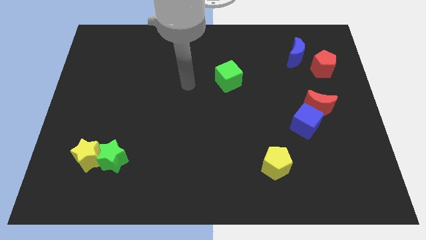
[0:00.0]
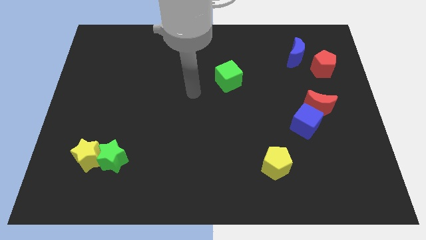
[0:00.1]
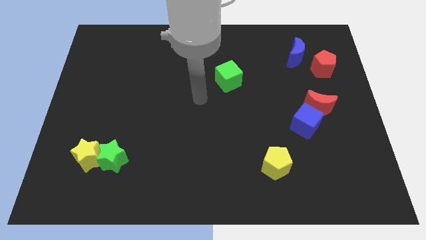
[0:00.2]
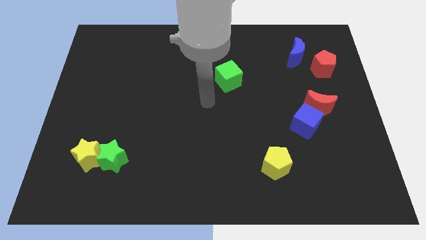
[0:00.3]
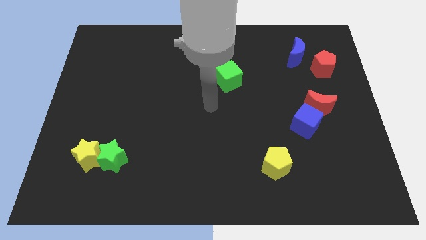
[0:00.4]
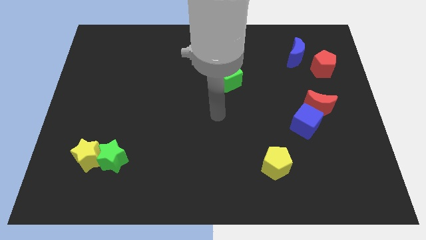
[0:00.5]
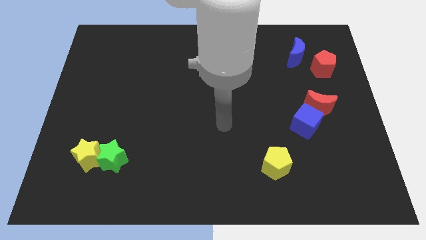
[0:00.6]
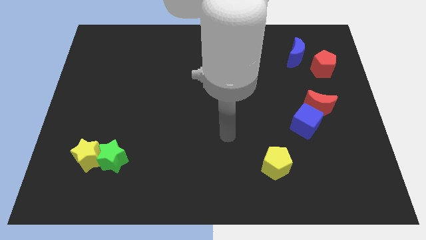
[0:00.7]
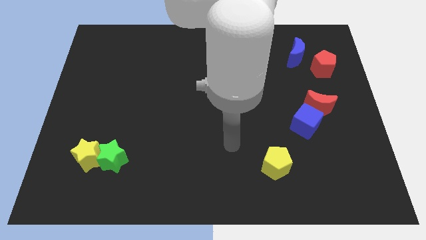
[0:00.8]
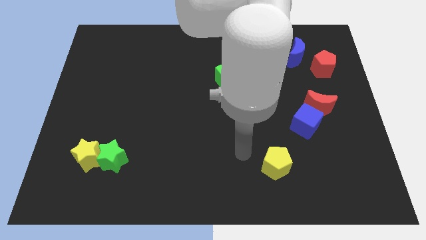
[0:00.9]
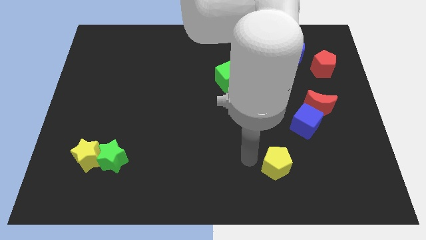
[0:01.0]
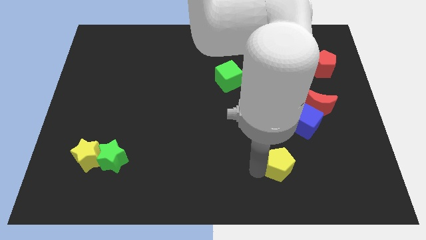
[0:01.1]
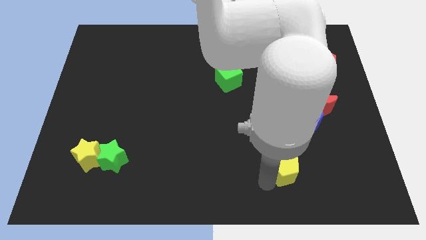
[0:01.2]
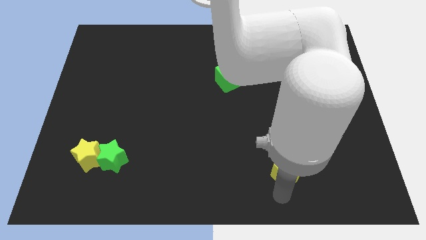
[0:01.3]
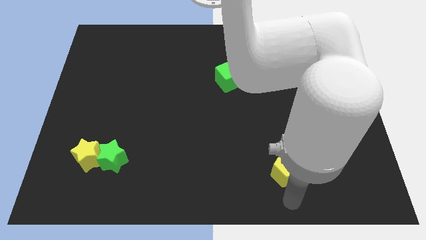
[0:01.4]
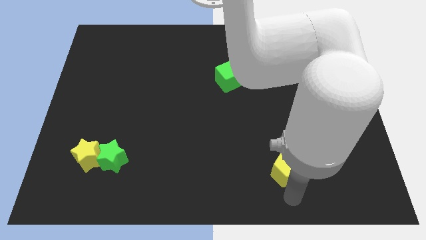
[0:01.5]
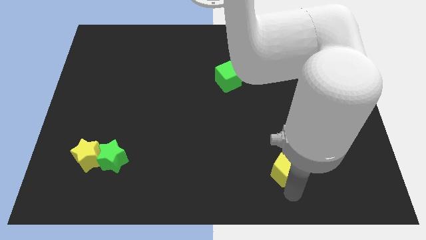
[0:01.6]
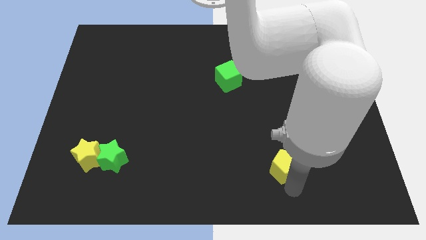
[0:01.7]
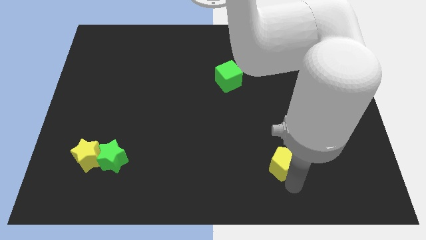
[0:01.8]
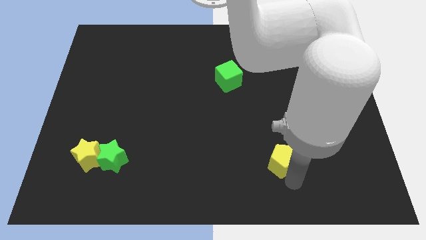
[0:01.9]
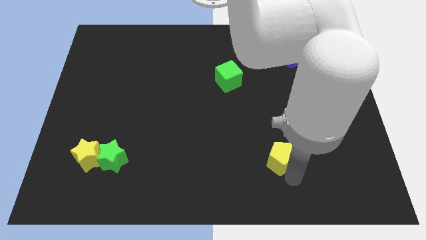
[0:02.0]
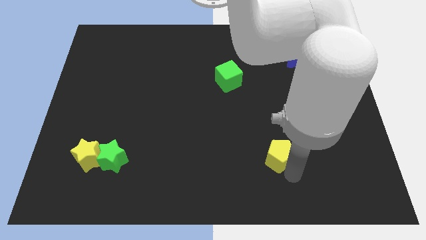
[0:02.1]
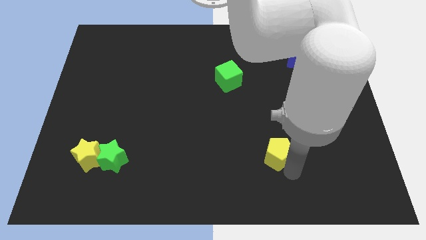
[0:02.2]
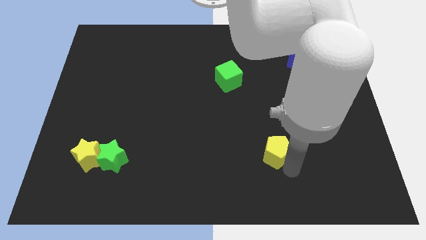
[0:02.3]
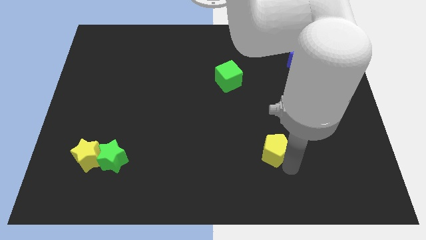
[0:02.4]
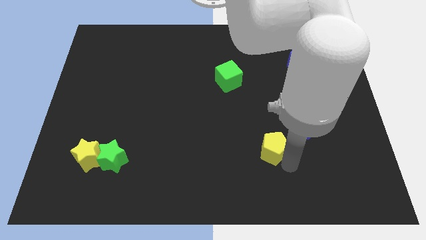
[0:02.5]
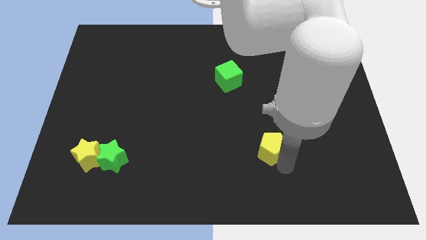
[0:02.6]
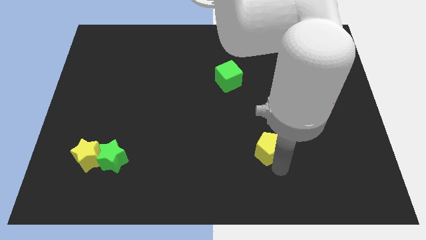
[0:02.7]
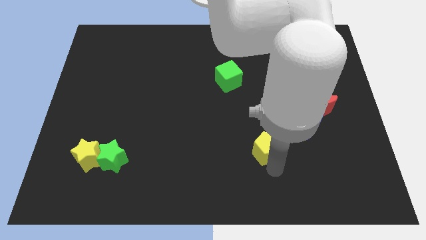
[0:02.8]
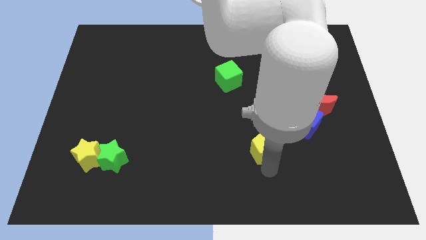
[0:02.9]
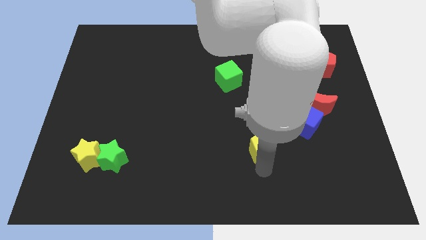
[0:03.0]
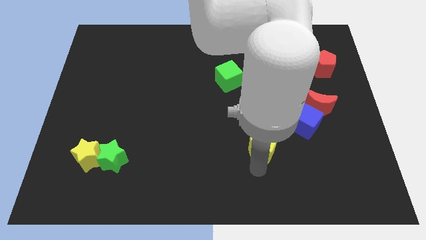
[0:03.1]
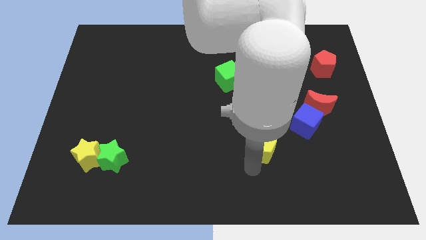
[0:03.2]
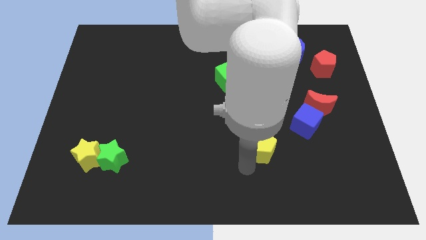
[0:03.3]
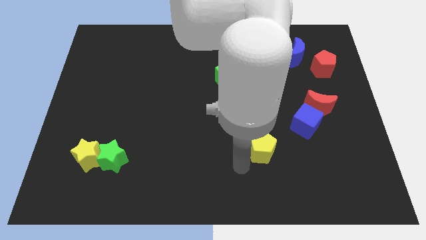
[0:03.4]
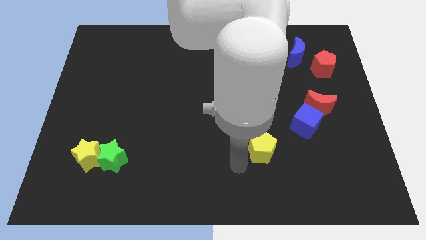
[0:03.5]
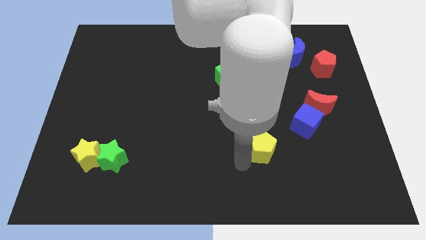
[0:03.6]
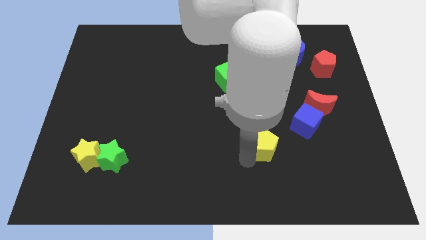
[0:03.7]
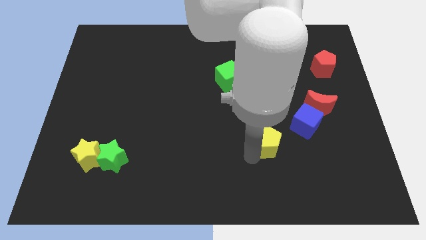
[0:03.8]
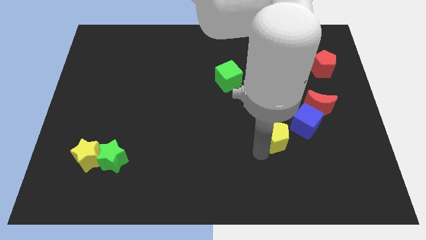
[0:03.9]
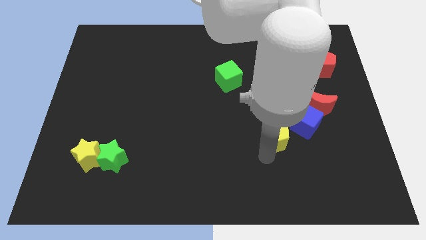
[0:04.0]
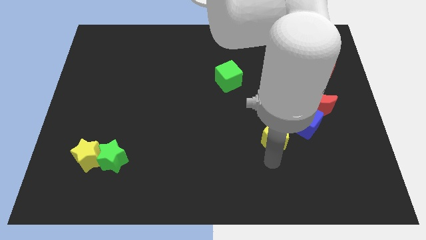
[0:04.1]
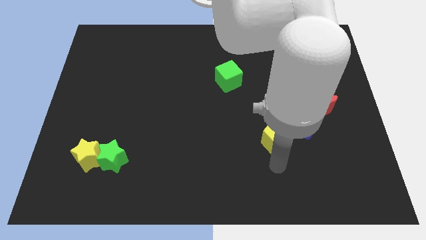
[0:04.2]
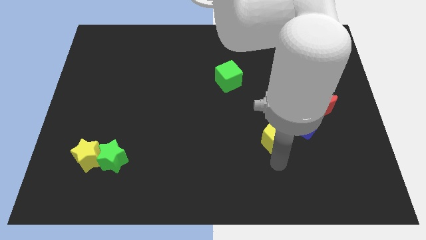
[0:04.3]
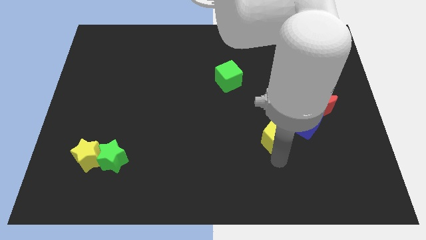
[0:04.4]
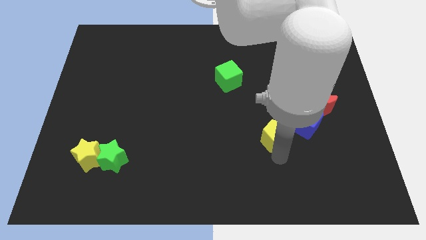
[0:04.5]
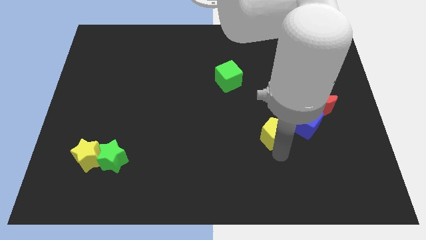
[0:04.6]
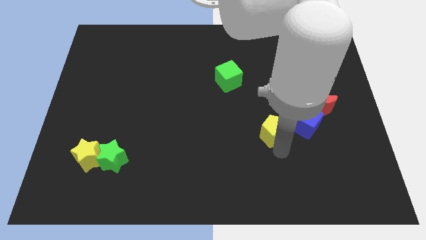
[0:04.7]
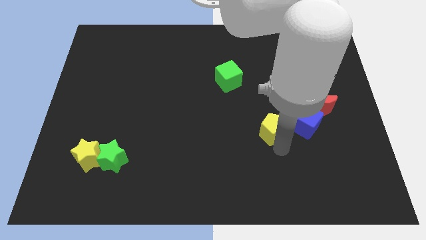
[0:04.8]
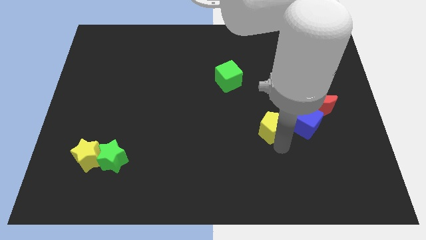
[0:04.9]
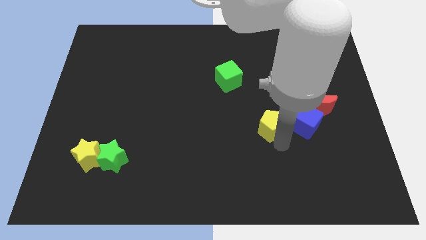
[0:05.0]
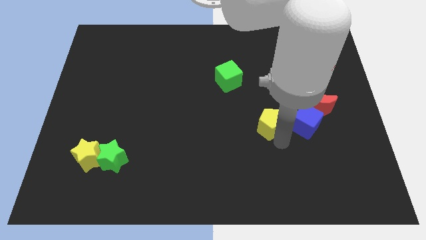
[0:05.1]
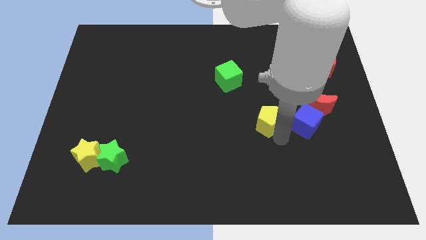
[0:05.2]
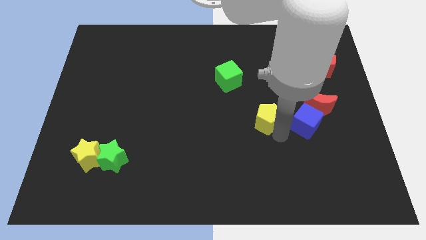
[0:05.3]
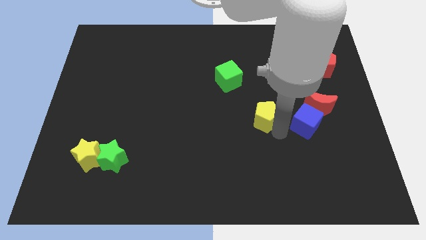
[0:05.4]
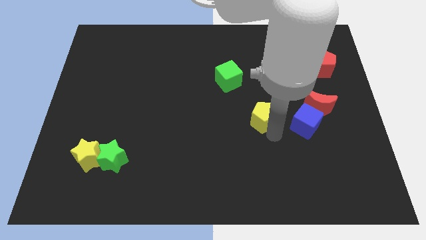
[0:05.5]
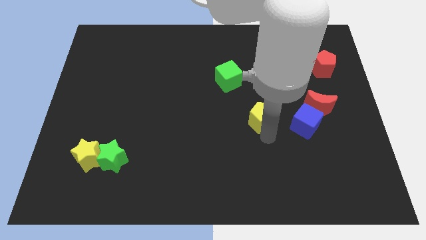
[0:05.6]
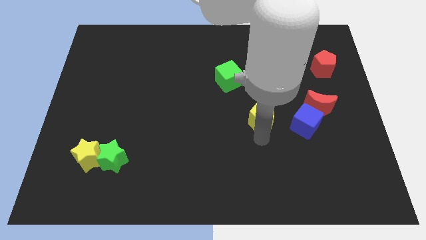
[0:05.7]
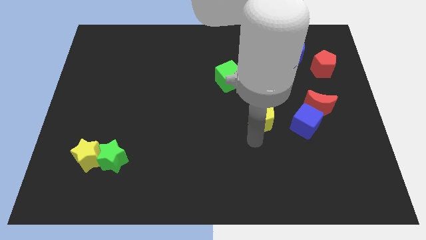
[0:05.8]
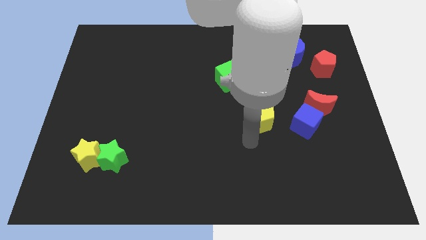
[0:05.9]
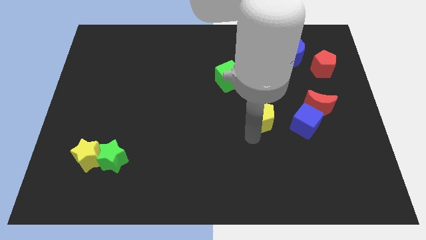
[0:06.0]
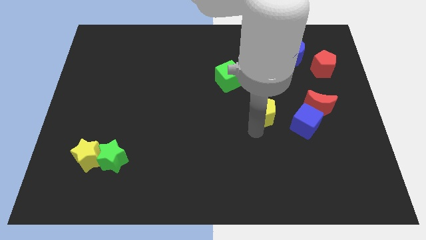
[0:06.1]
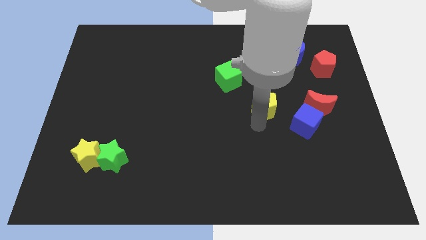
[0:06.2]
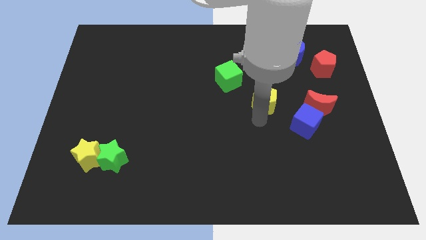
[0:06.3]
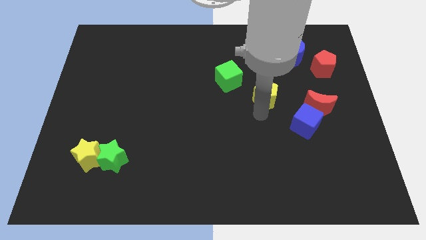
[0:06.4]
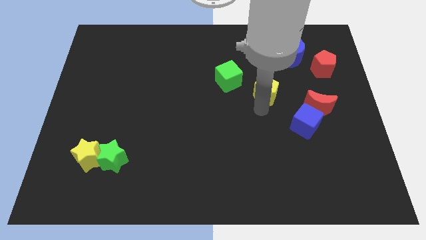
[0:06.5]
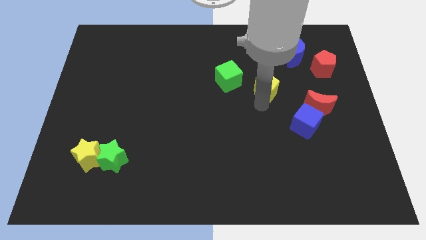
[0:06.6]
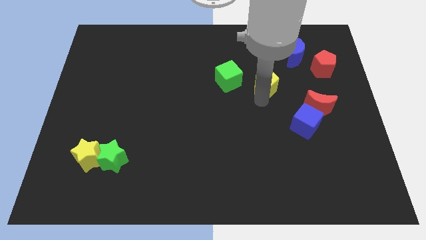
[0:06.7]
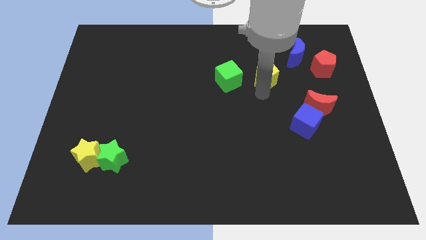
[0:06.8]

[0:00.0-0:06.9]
move the yellow pentagon left of the red pentagon

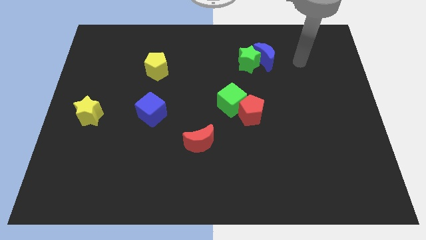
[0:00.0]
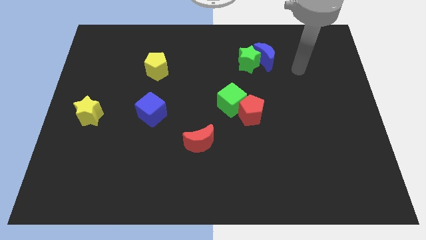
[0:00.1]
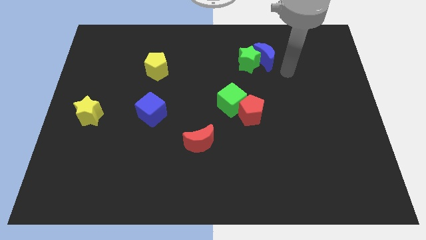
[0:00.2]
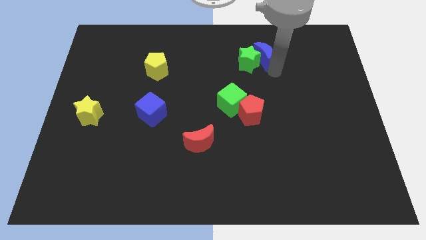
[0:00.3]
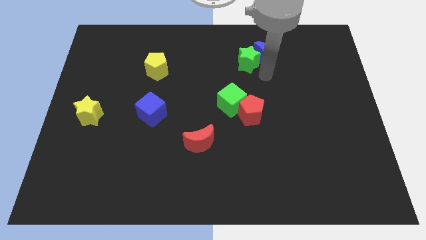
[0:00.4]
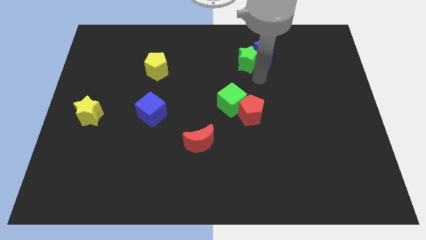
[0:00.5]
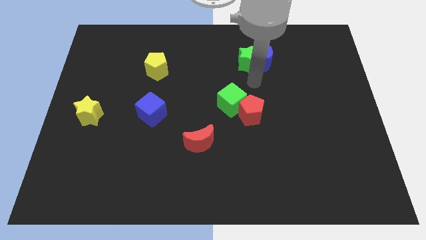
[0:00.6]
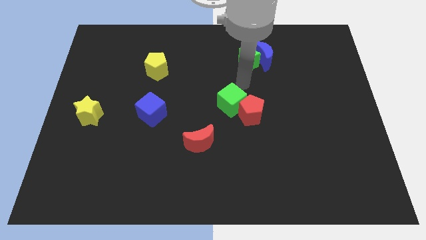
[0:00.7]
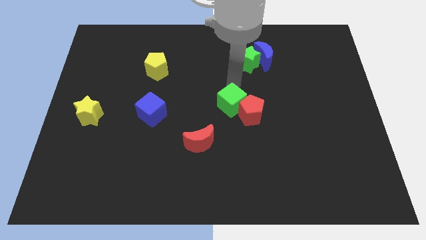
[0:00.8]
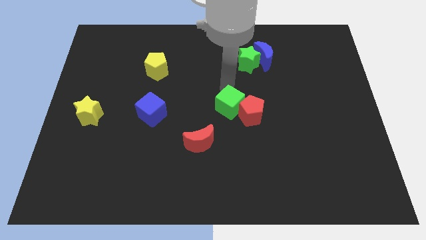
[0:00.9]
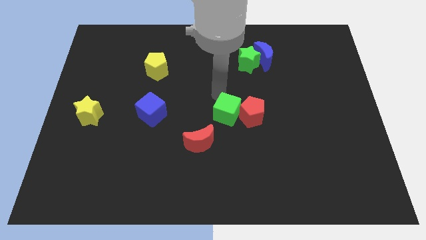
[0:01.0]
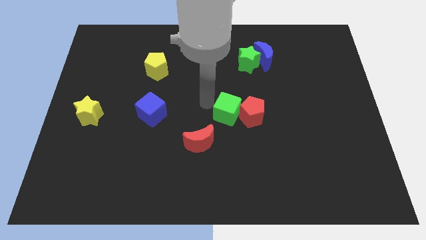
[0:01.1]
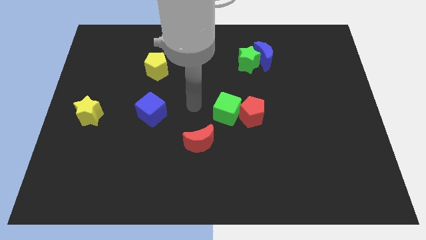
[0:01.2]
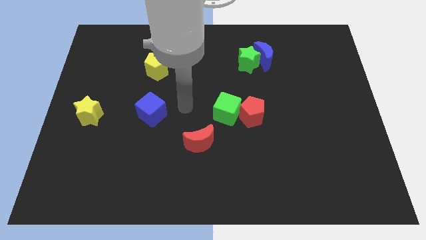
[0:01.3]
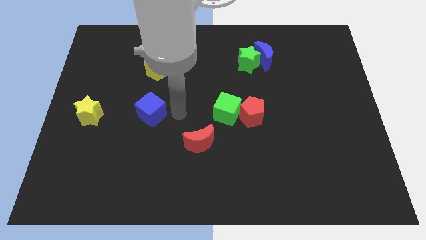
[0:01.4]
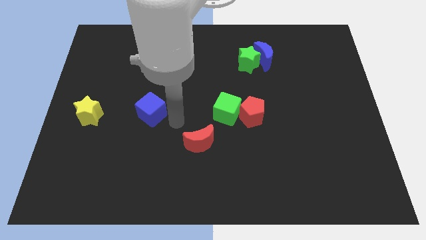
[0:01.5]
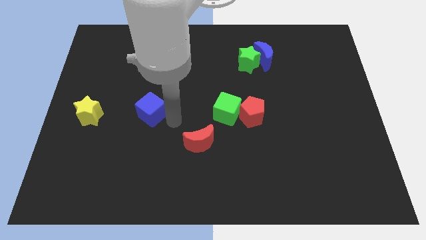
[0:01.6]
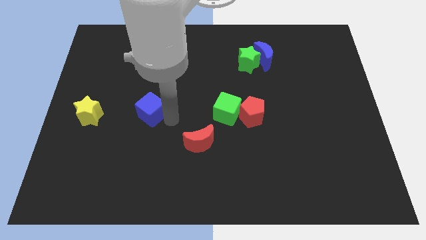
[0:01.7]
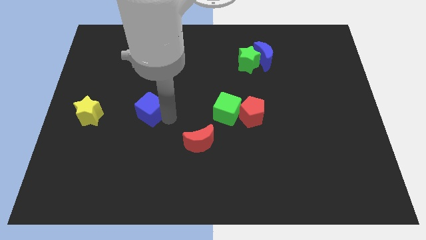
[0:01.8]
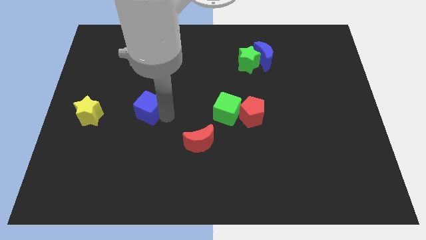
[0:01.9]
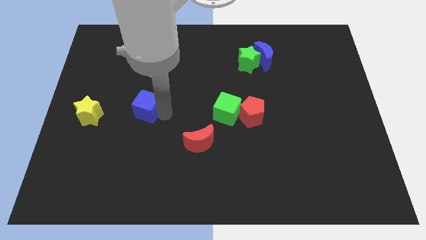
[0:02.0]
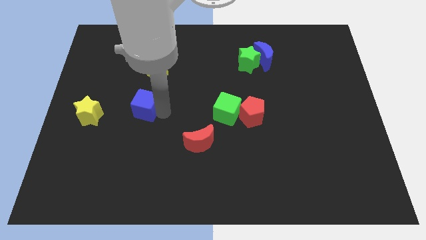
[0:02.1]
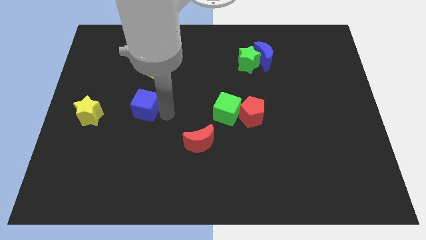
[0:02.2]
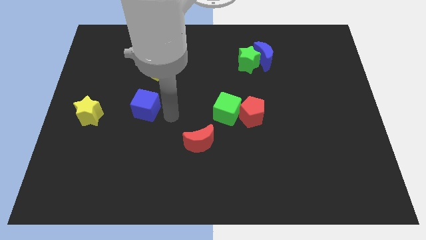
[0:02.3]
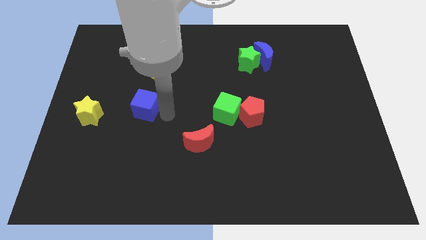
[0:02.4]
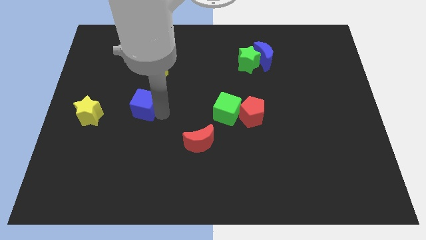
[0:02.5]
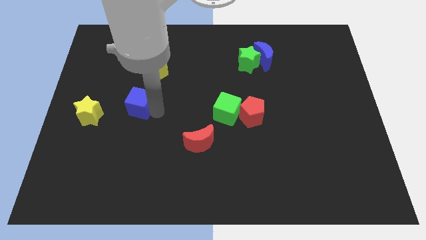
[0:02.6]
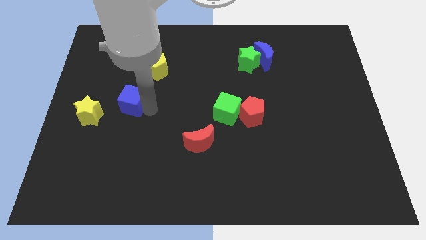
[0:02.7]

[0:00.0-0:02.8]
slide the blue cube to the top right side of the yellow star
